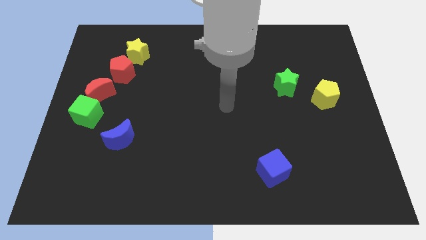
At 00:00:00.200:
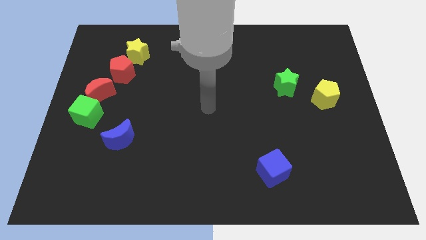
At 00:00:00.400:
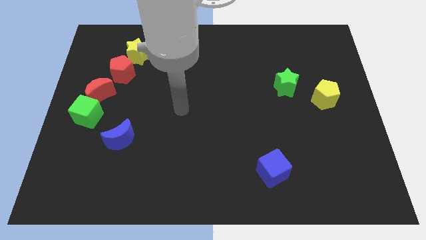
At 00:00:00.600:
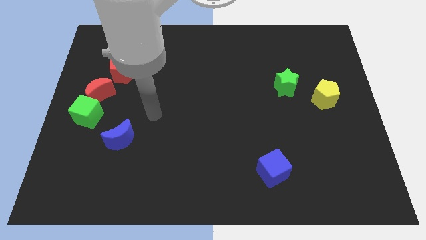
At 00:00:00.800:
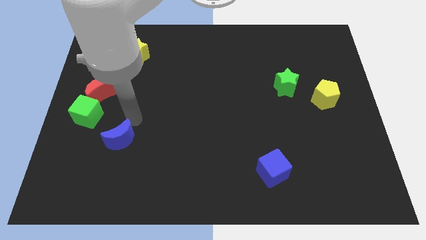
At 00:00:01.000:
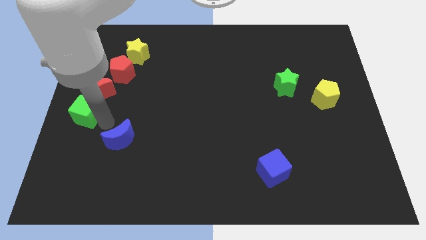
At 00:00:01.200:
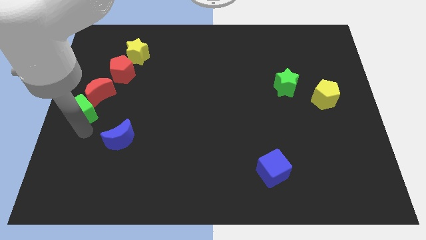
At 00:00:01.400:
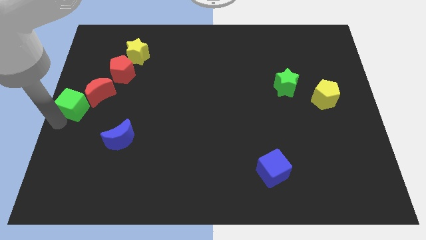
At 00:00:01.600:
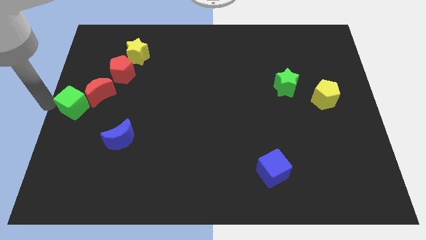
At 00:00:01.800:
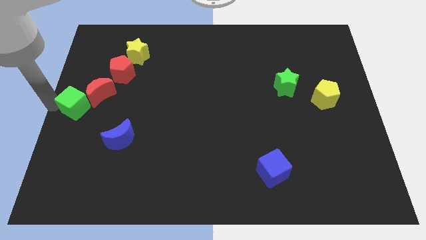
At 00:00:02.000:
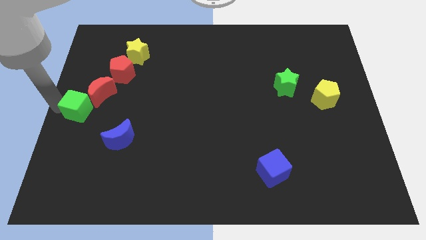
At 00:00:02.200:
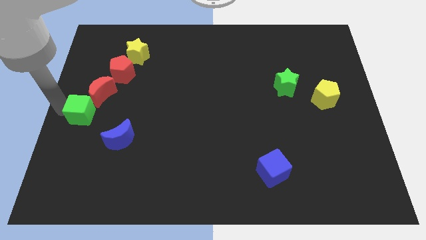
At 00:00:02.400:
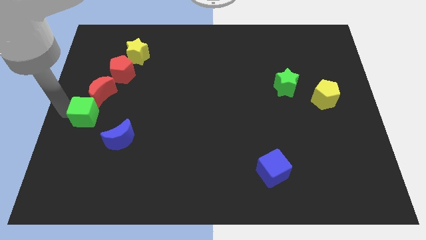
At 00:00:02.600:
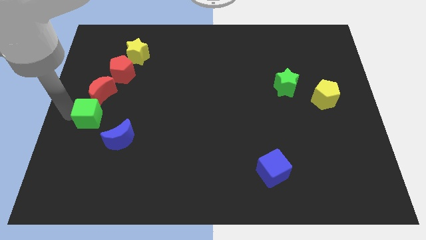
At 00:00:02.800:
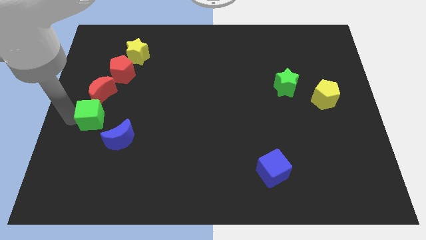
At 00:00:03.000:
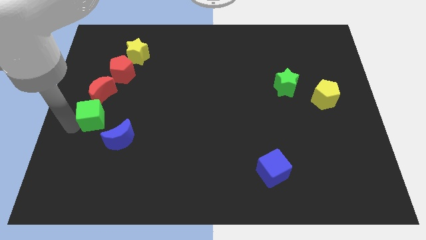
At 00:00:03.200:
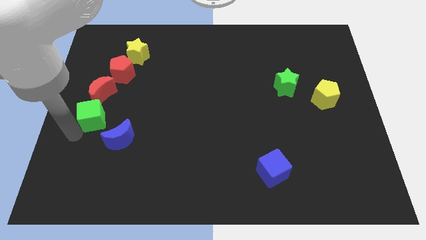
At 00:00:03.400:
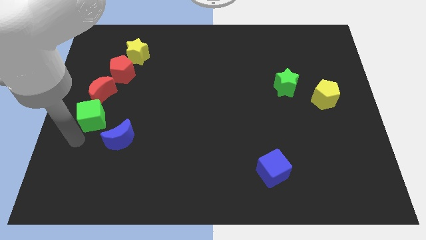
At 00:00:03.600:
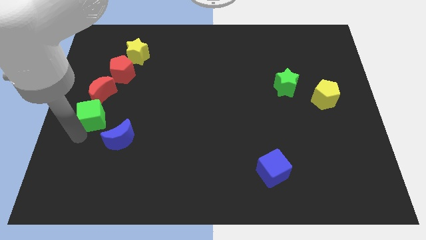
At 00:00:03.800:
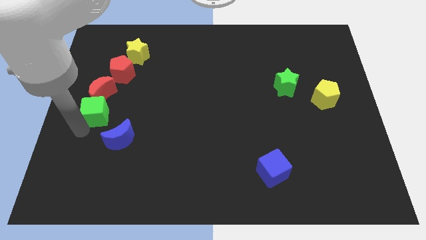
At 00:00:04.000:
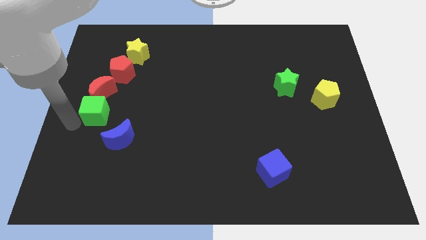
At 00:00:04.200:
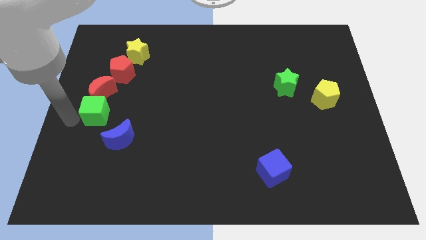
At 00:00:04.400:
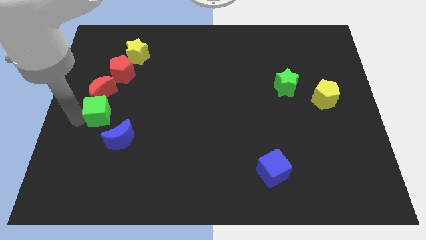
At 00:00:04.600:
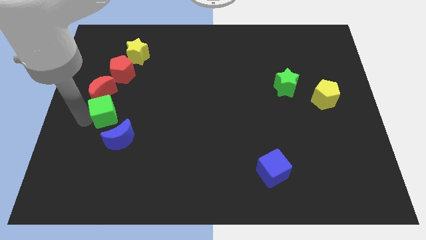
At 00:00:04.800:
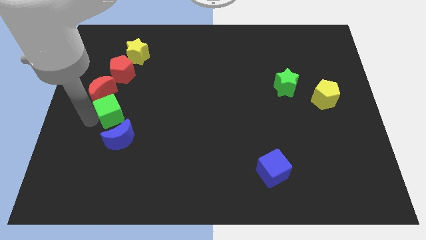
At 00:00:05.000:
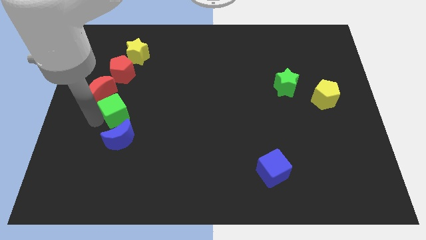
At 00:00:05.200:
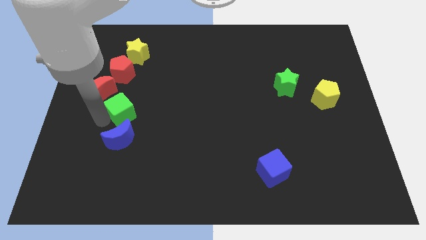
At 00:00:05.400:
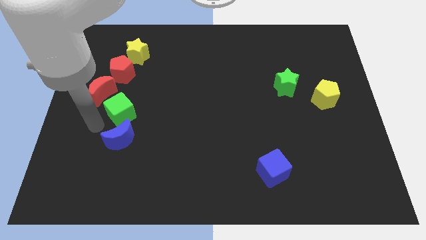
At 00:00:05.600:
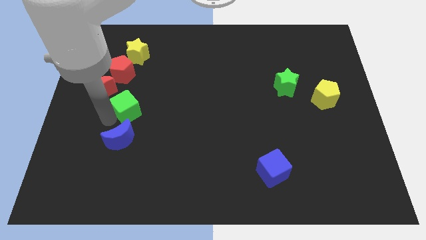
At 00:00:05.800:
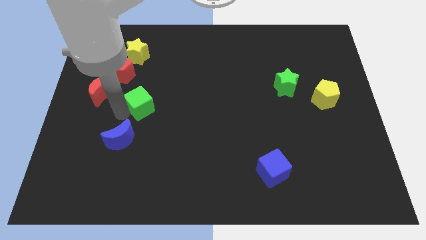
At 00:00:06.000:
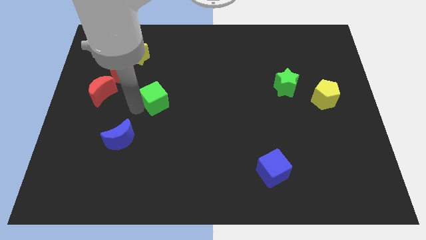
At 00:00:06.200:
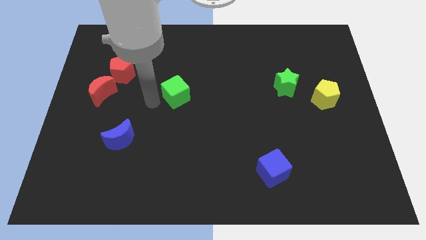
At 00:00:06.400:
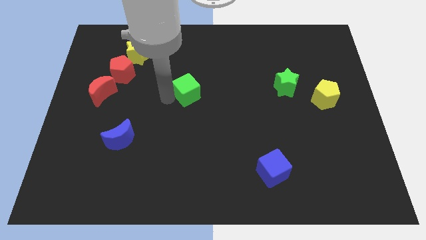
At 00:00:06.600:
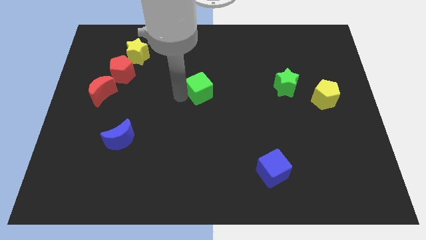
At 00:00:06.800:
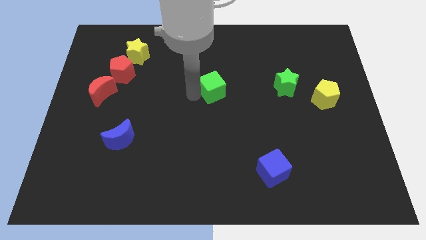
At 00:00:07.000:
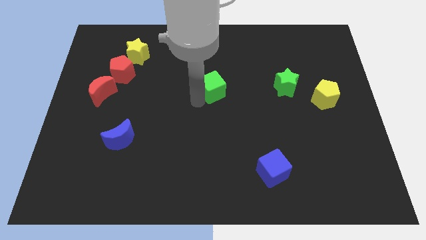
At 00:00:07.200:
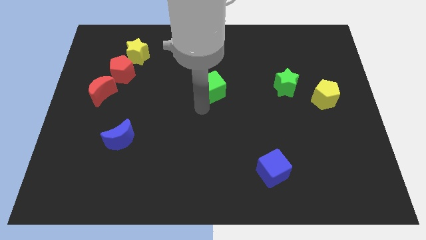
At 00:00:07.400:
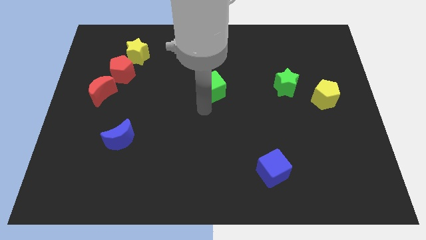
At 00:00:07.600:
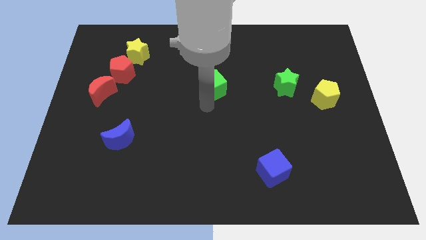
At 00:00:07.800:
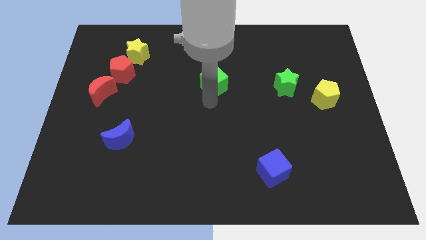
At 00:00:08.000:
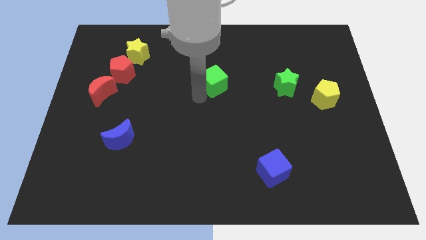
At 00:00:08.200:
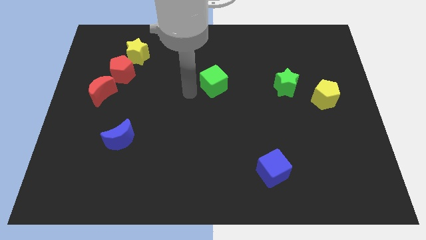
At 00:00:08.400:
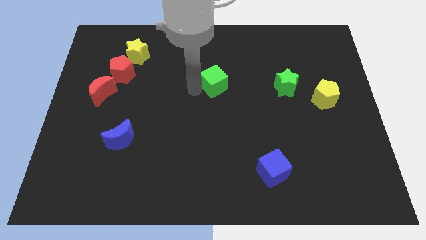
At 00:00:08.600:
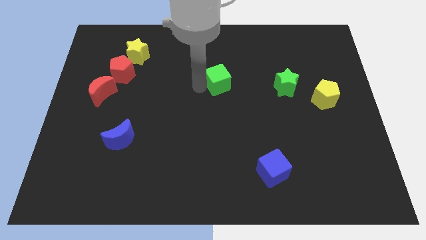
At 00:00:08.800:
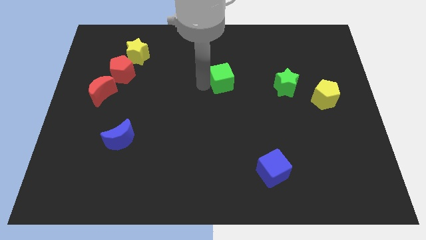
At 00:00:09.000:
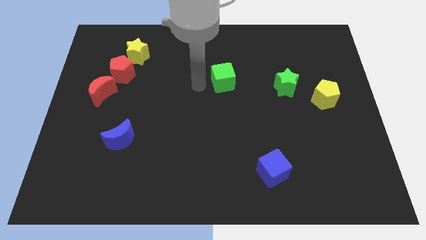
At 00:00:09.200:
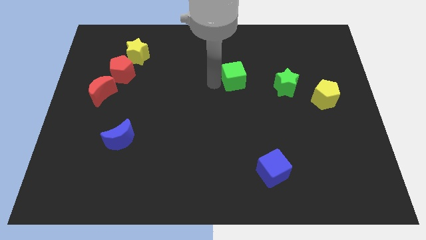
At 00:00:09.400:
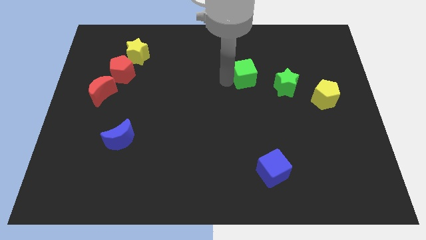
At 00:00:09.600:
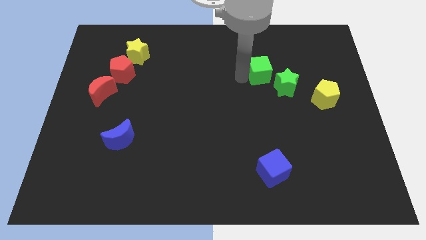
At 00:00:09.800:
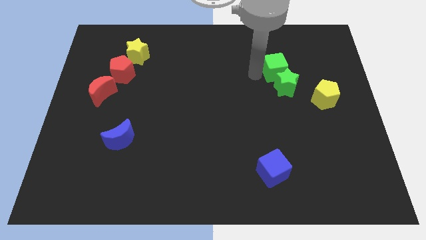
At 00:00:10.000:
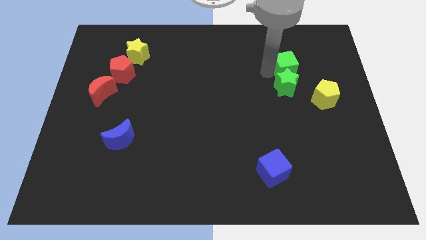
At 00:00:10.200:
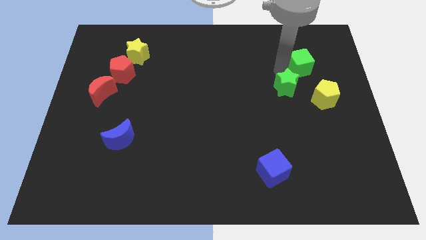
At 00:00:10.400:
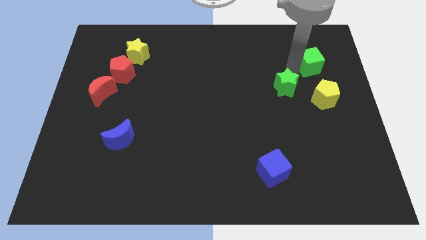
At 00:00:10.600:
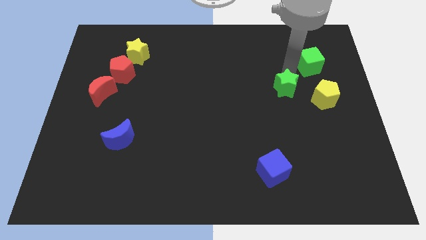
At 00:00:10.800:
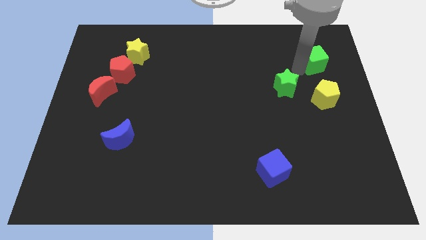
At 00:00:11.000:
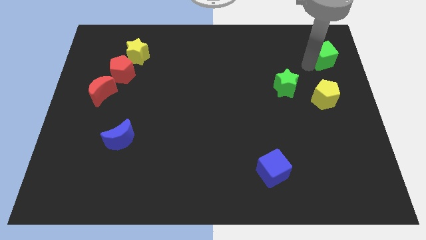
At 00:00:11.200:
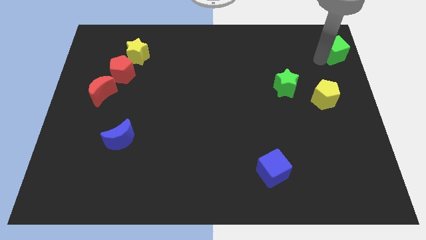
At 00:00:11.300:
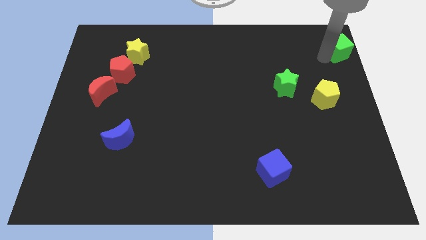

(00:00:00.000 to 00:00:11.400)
put the green cube to the top right corner
